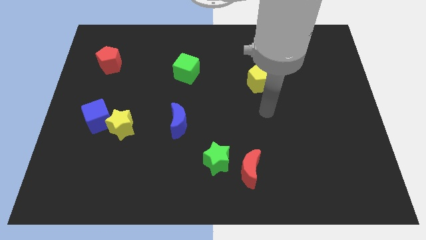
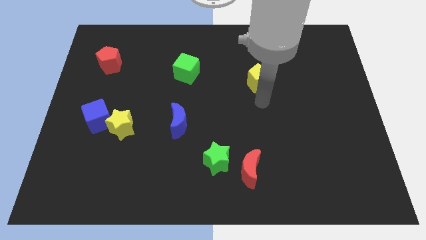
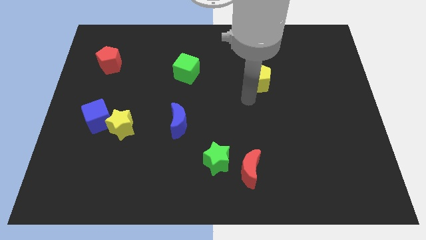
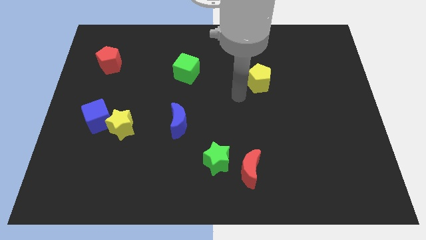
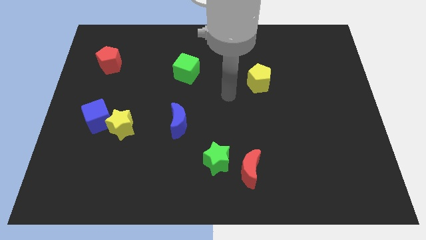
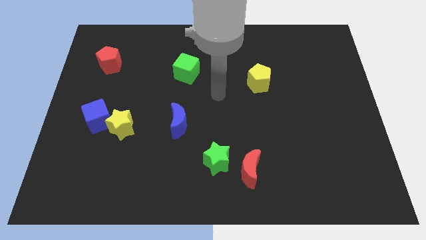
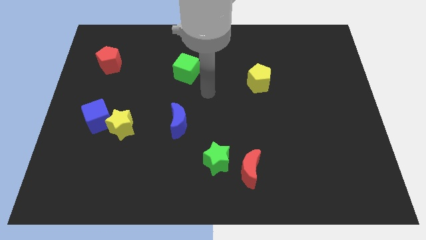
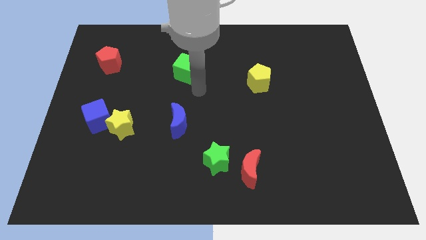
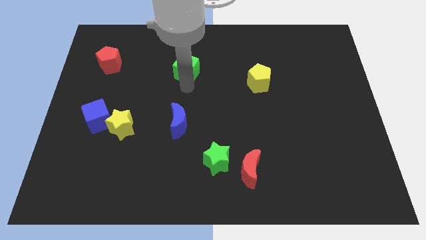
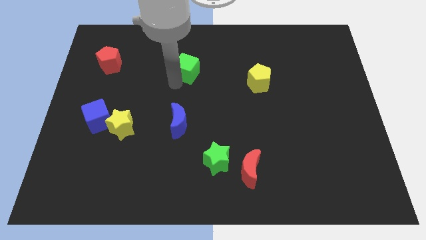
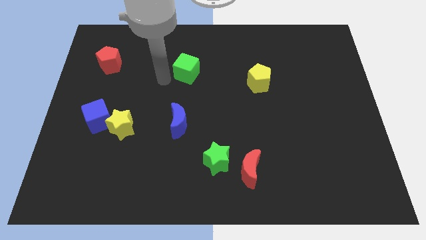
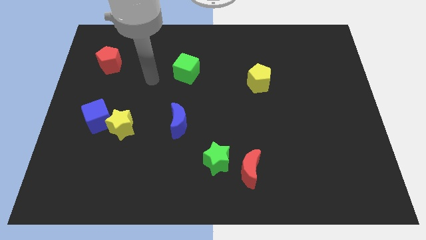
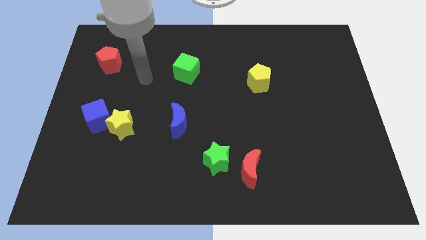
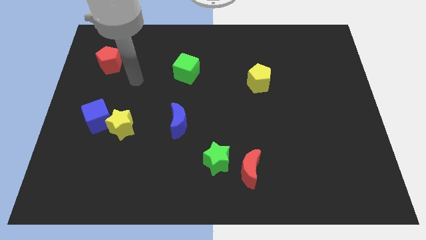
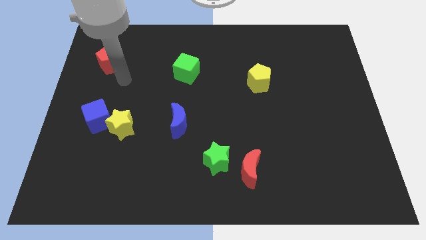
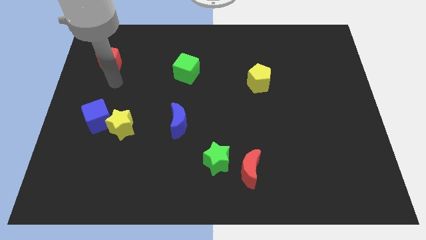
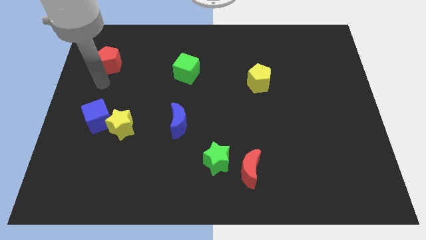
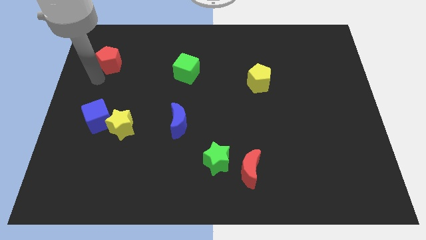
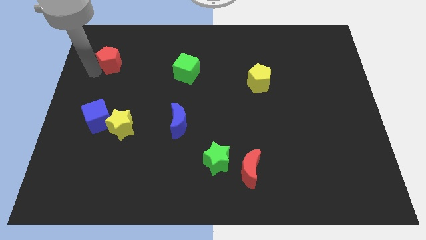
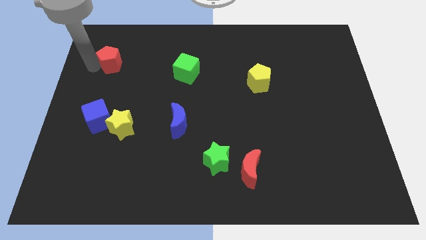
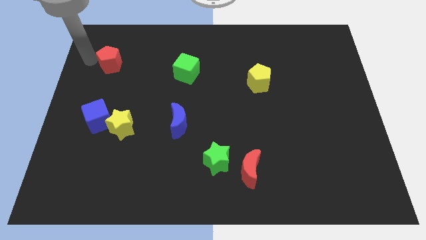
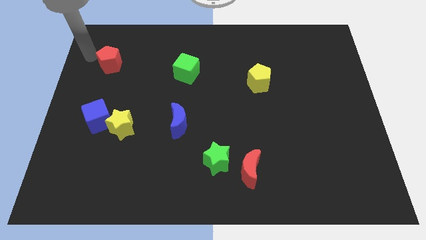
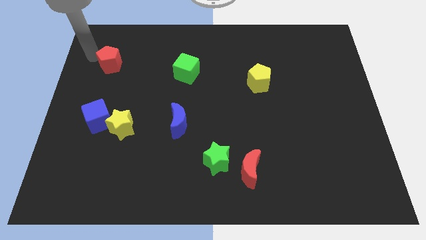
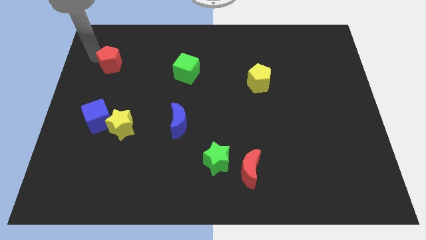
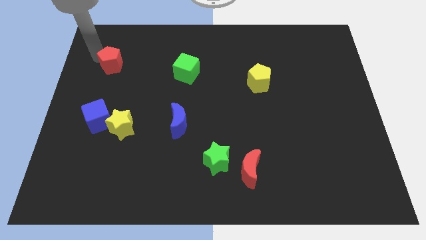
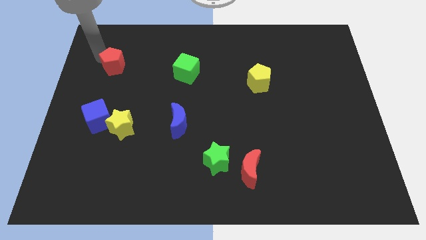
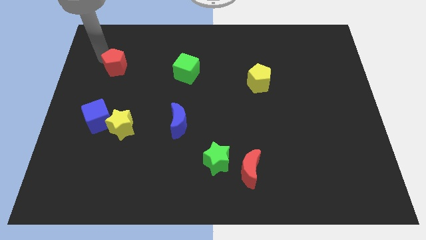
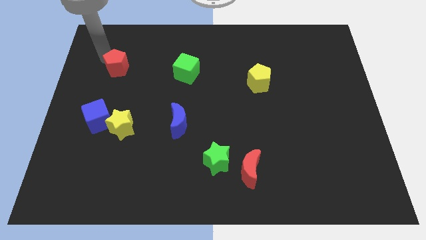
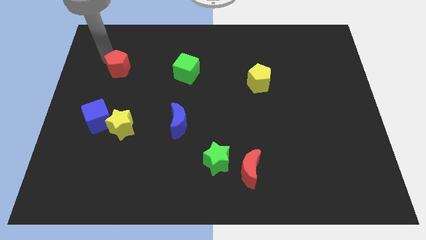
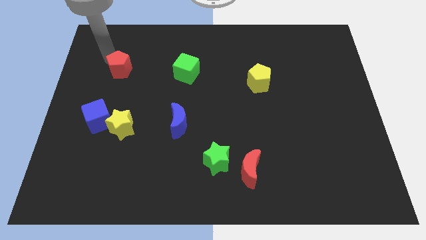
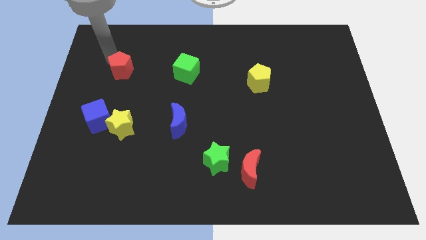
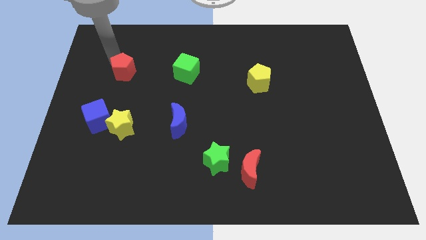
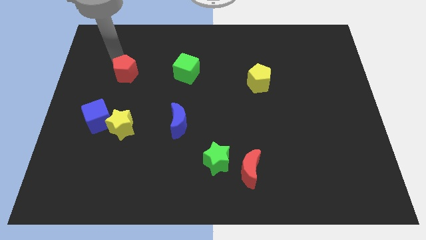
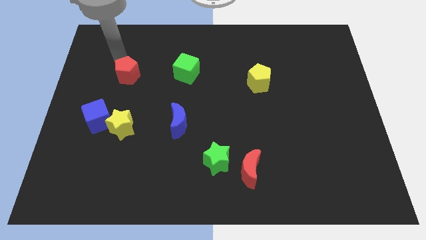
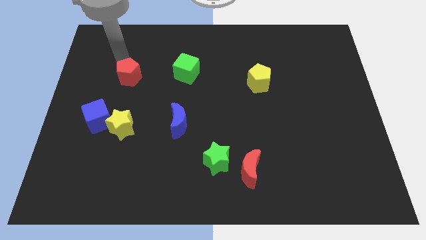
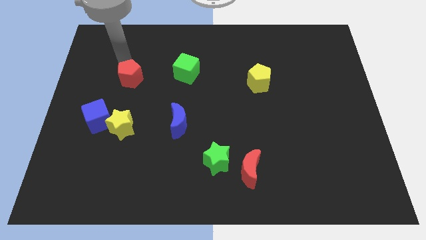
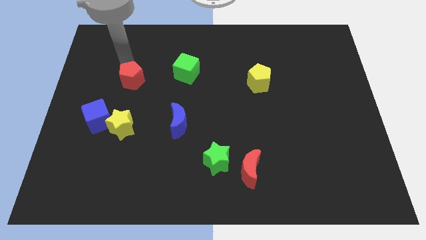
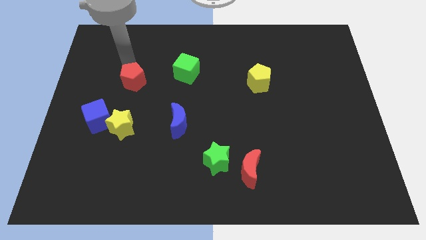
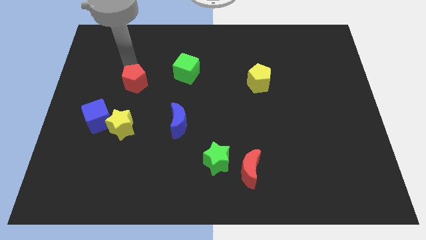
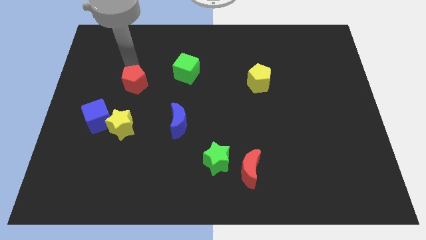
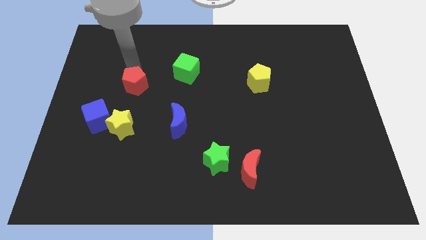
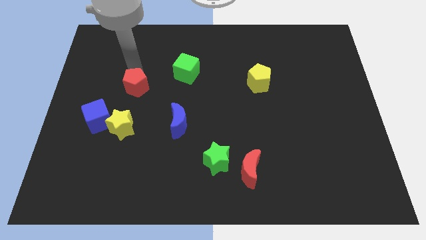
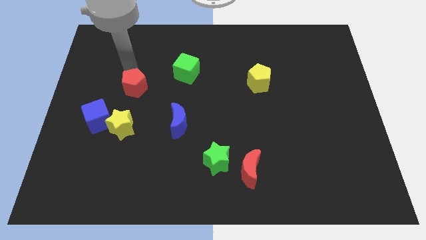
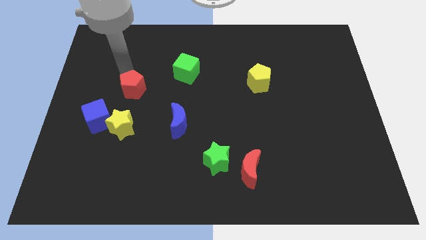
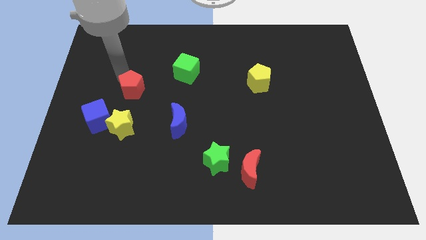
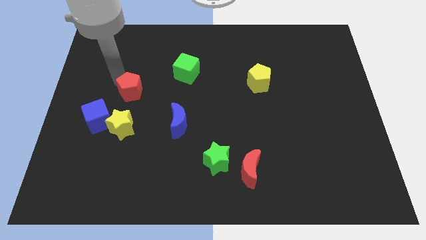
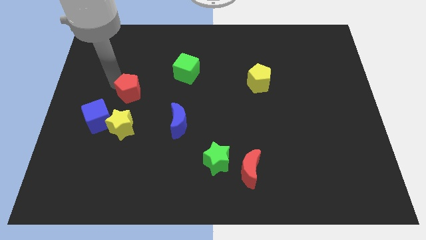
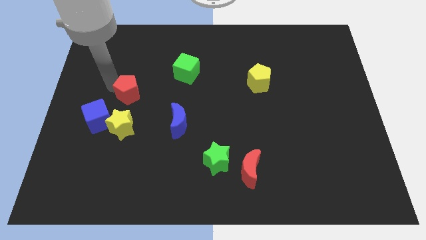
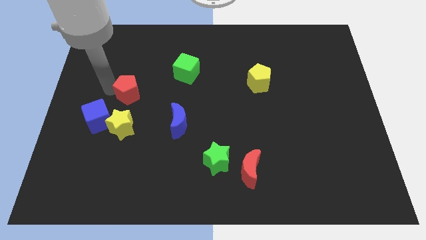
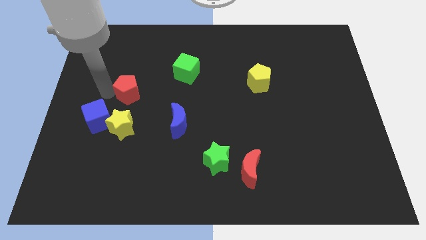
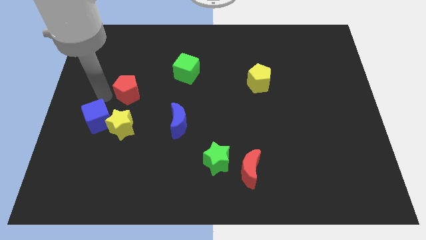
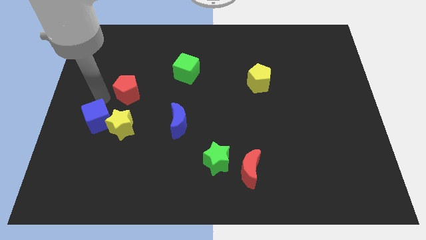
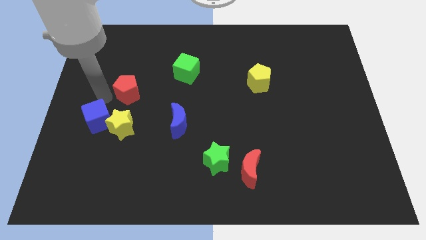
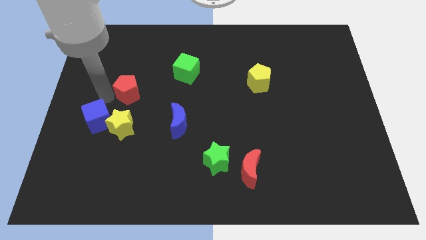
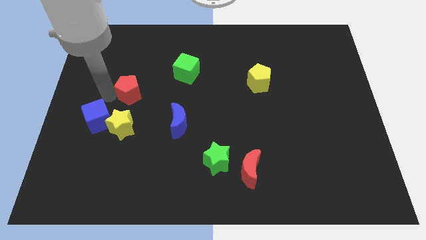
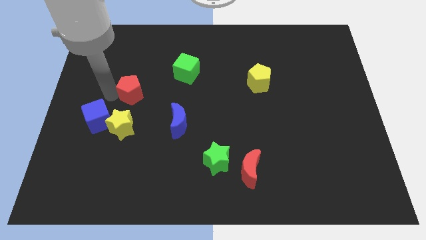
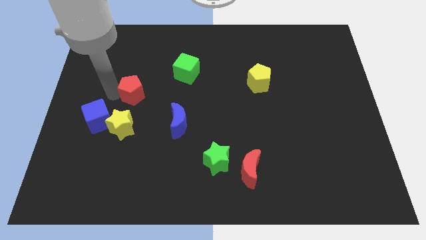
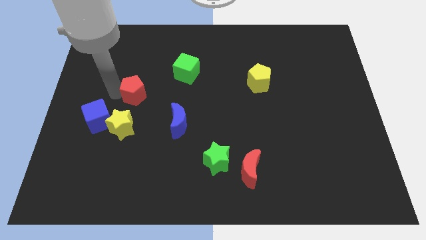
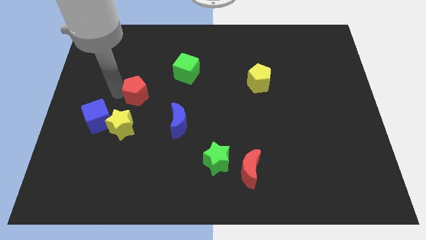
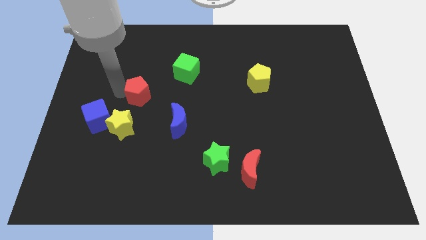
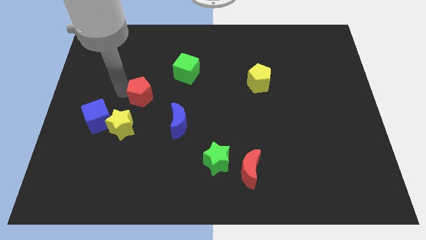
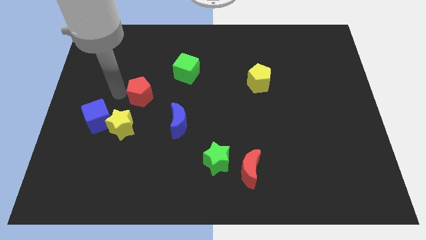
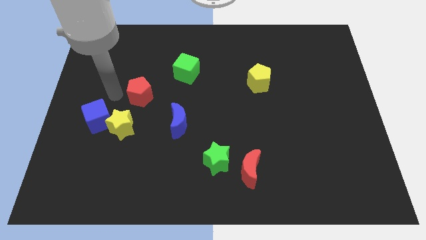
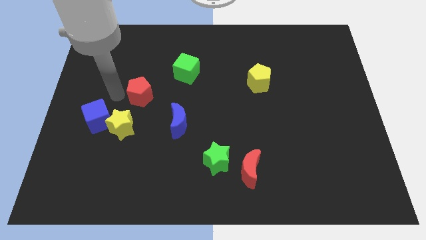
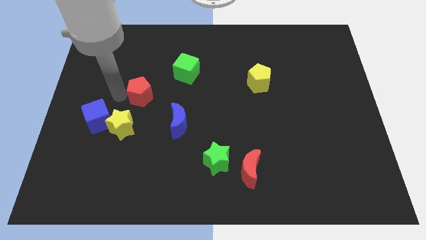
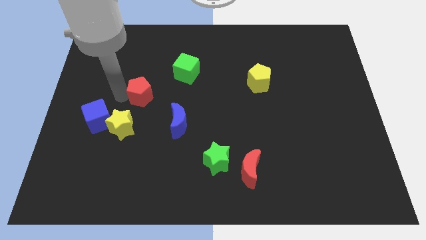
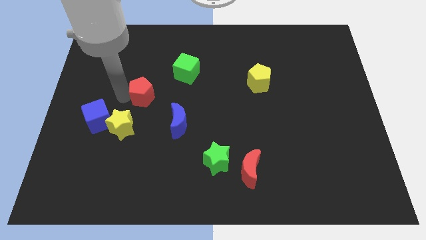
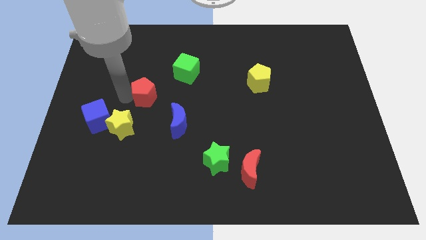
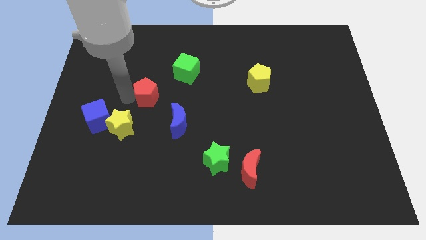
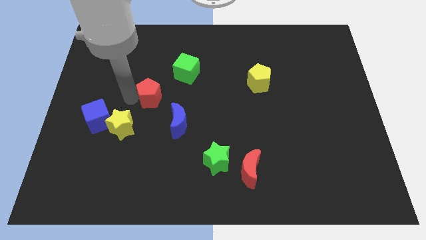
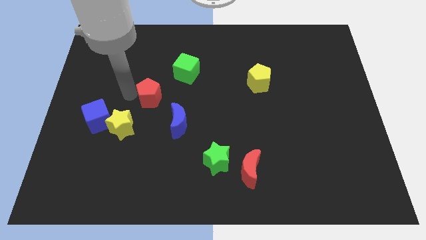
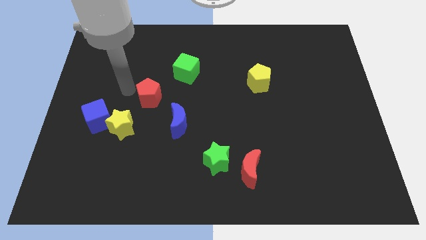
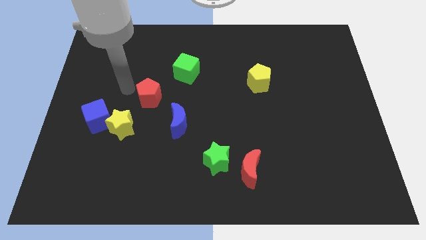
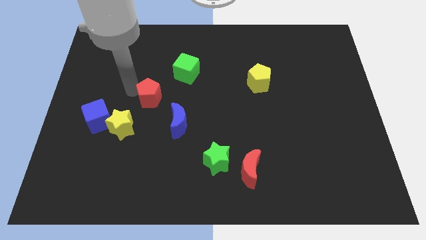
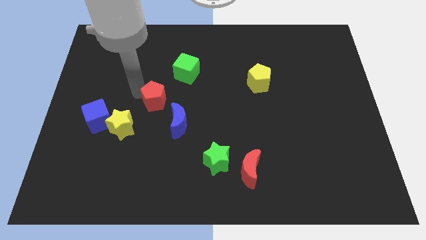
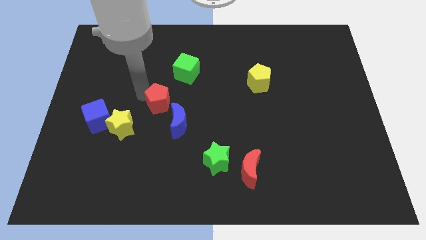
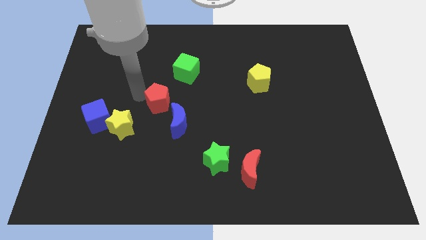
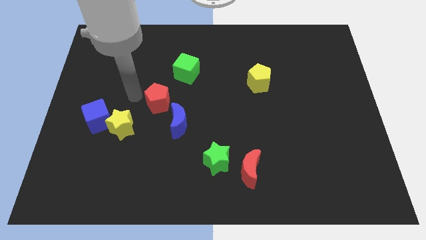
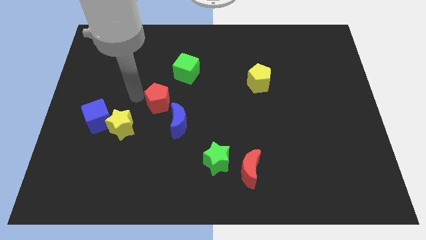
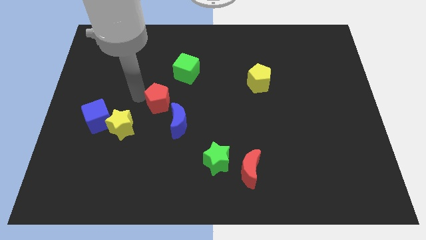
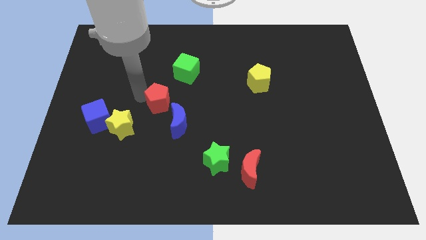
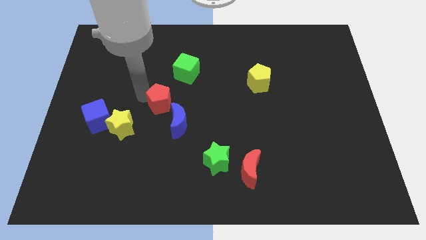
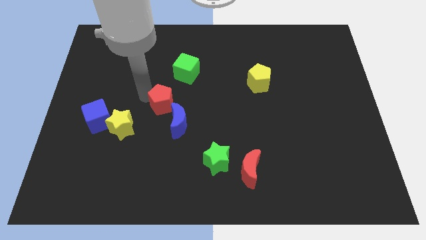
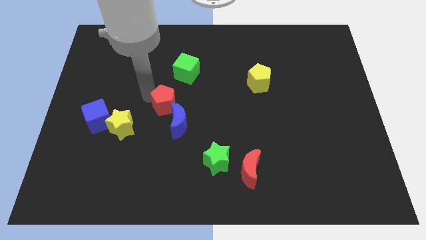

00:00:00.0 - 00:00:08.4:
push the red pentagon downwards and then right
